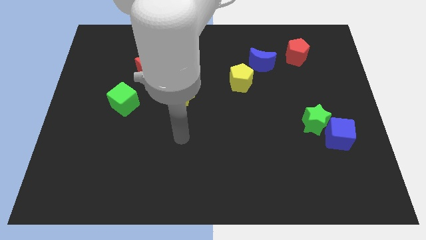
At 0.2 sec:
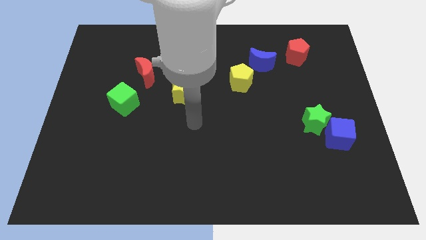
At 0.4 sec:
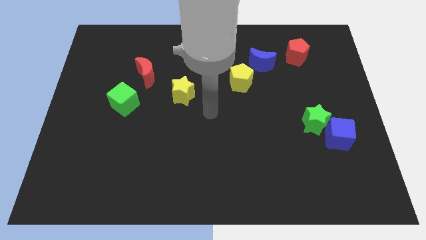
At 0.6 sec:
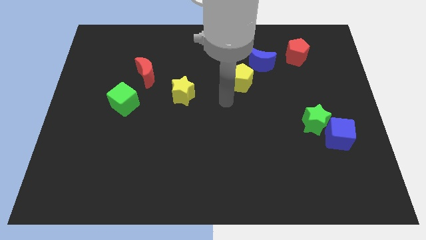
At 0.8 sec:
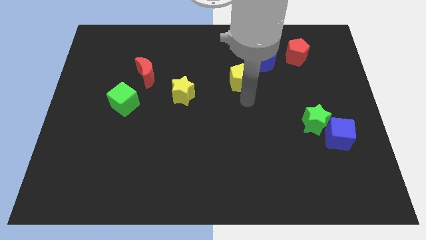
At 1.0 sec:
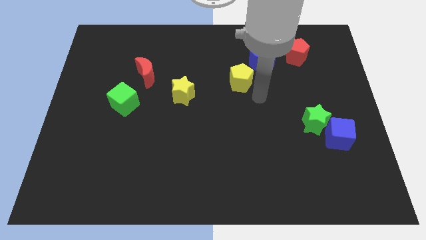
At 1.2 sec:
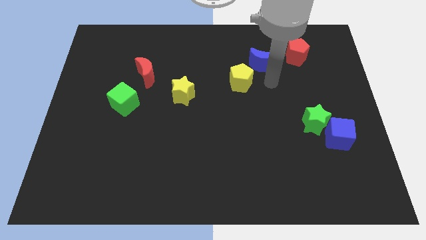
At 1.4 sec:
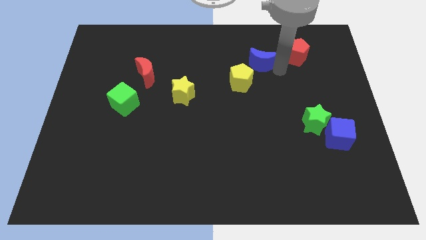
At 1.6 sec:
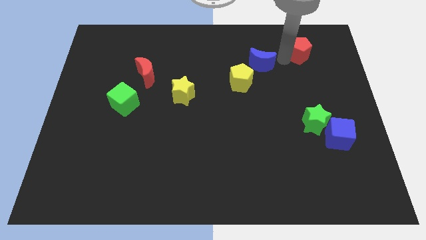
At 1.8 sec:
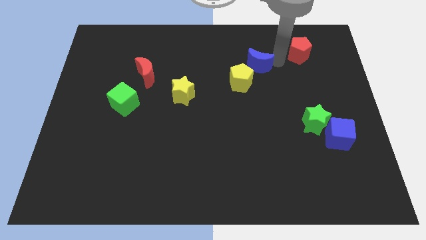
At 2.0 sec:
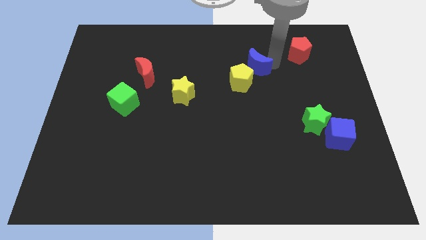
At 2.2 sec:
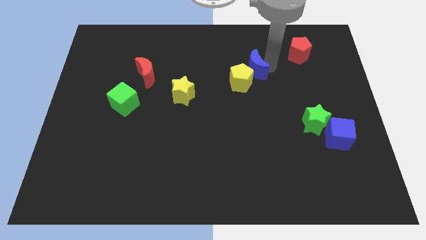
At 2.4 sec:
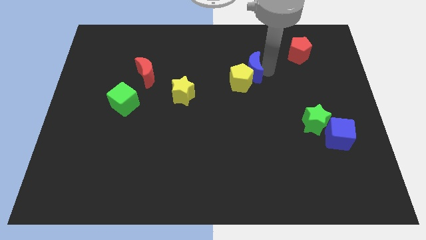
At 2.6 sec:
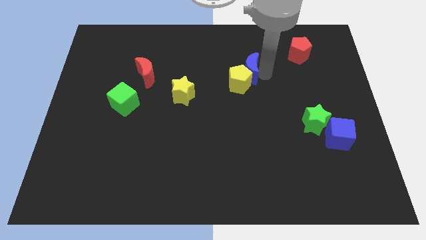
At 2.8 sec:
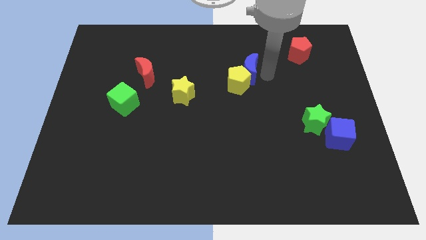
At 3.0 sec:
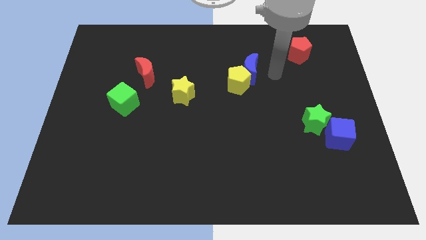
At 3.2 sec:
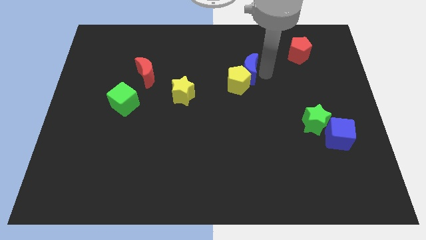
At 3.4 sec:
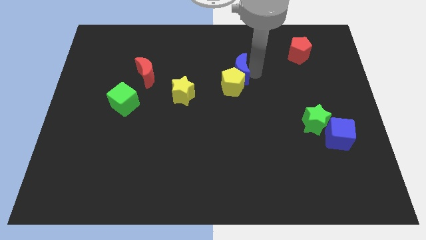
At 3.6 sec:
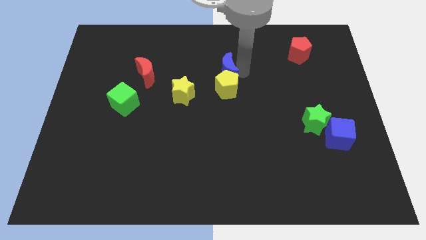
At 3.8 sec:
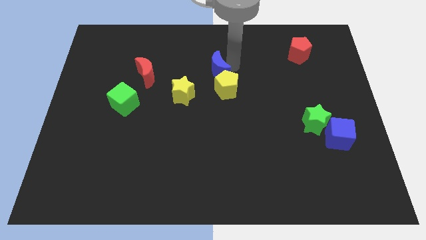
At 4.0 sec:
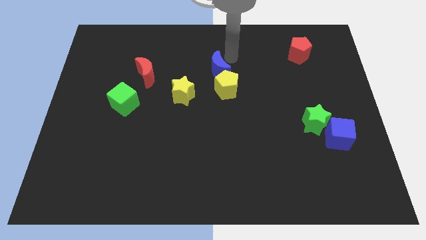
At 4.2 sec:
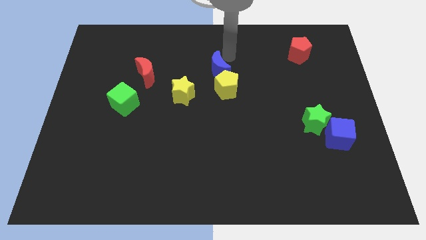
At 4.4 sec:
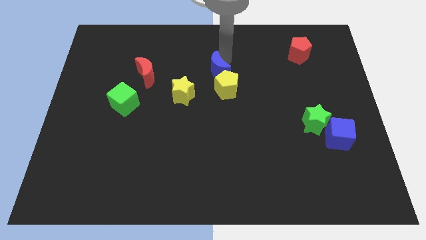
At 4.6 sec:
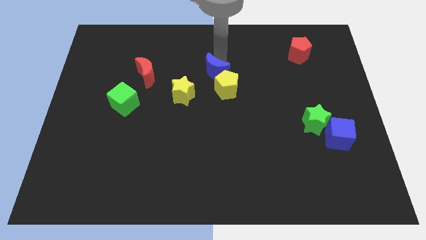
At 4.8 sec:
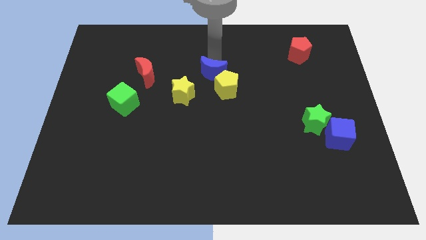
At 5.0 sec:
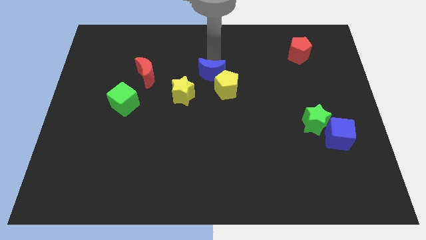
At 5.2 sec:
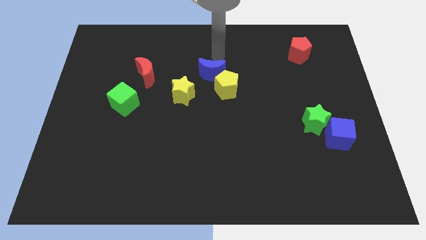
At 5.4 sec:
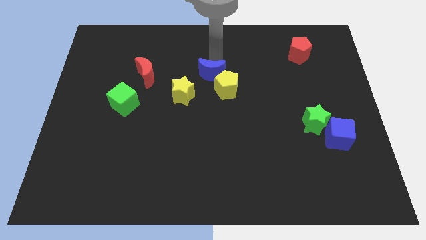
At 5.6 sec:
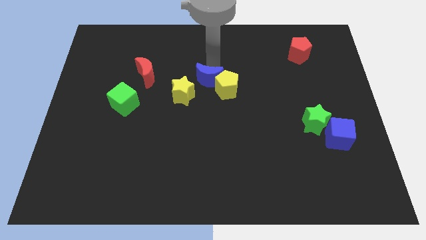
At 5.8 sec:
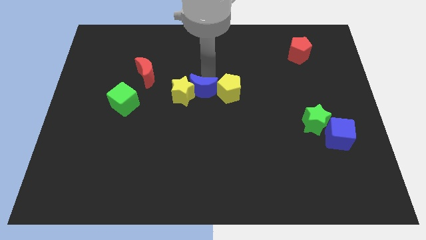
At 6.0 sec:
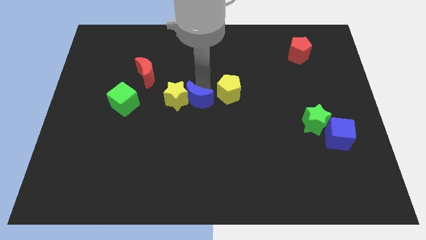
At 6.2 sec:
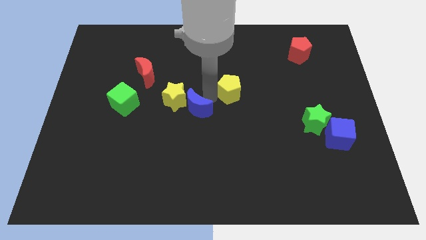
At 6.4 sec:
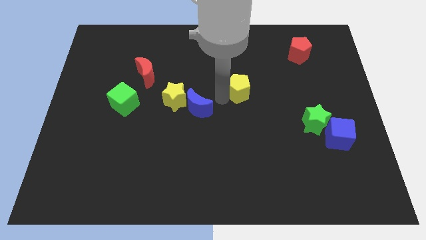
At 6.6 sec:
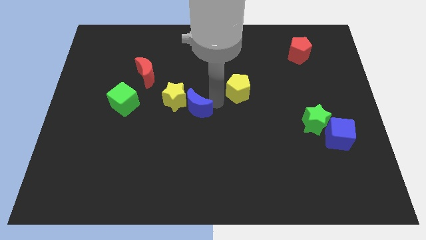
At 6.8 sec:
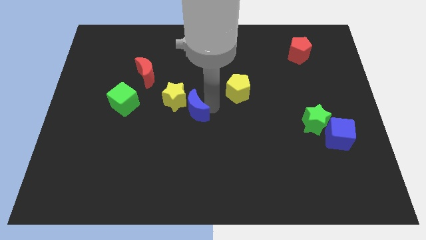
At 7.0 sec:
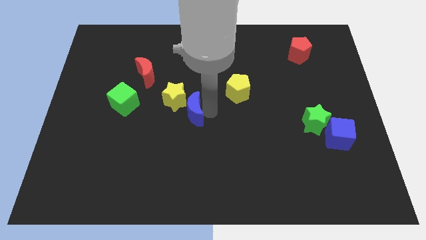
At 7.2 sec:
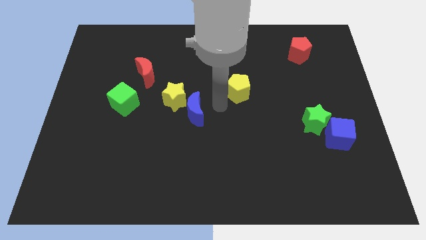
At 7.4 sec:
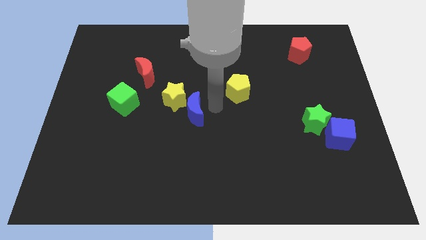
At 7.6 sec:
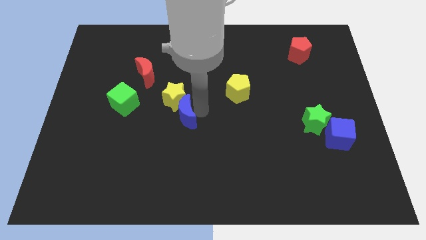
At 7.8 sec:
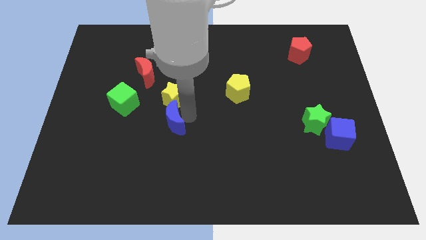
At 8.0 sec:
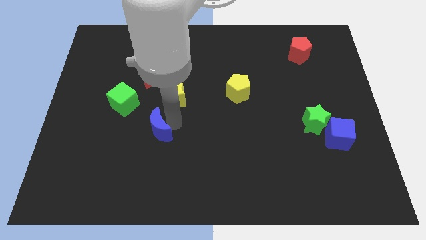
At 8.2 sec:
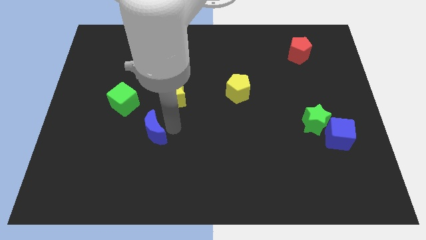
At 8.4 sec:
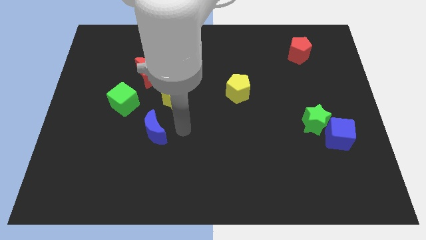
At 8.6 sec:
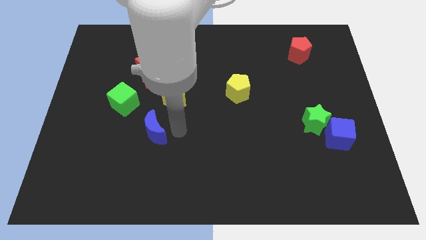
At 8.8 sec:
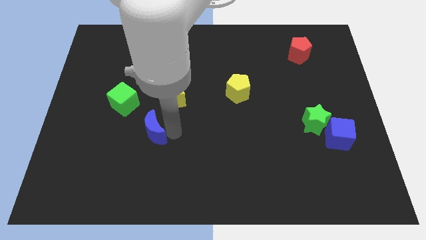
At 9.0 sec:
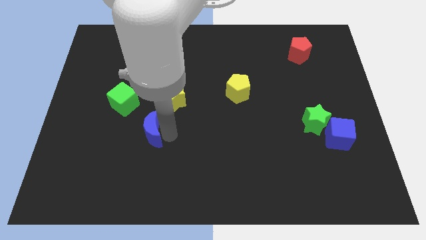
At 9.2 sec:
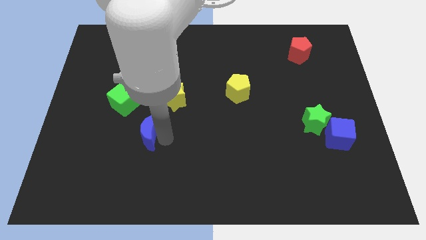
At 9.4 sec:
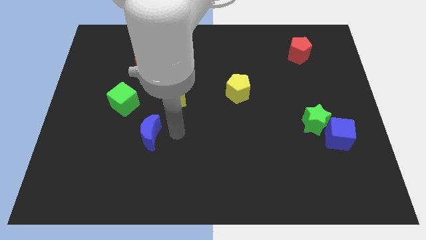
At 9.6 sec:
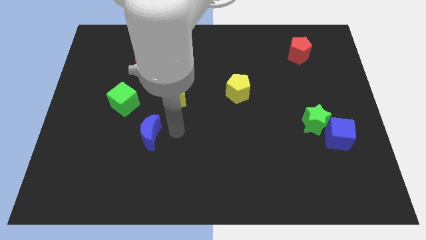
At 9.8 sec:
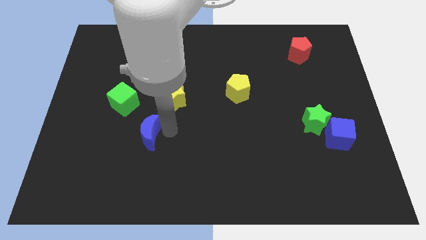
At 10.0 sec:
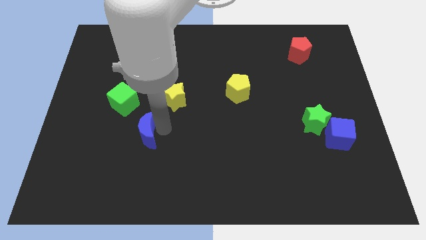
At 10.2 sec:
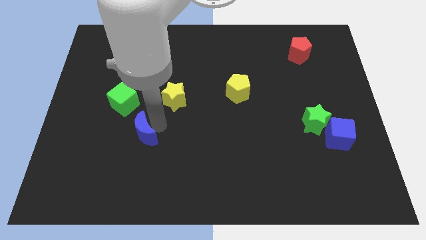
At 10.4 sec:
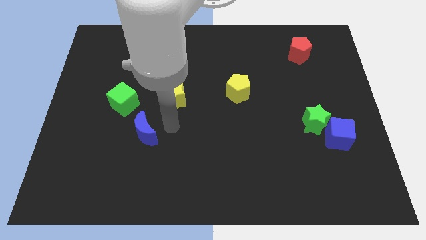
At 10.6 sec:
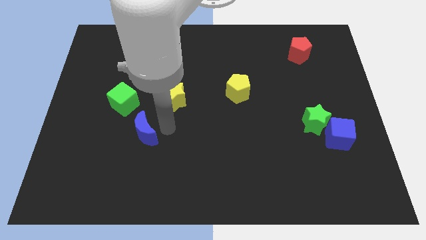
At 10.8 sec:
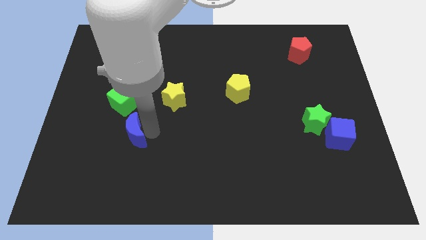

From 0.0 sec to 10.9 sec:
push the blue moon to the bottom side of the green cube

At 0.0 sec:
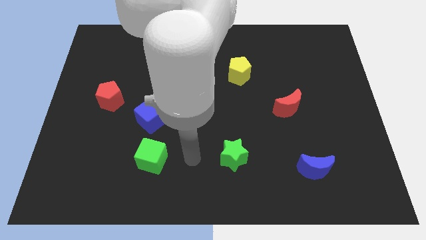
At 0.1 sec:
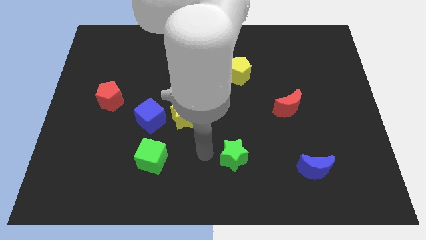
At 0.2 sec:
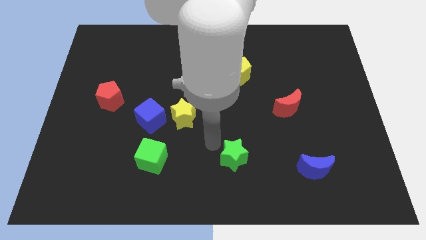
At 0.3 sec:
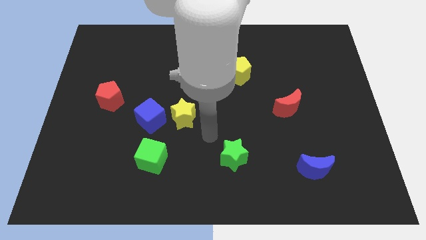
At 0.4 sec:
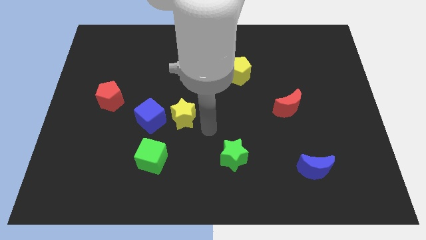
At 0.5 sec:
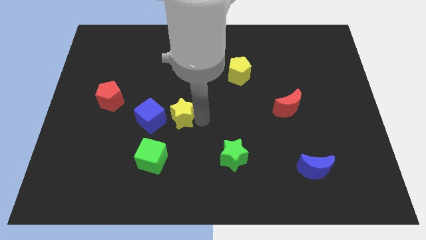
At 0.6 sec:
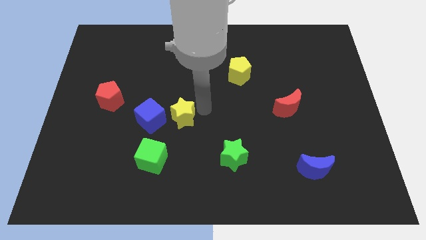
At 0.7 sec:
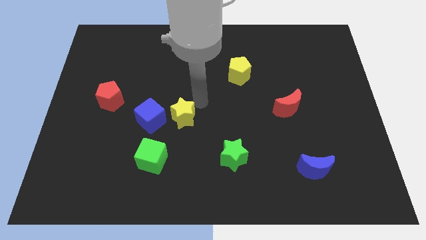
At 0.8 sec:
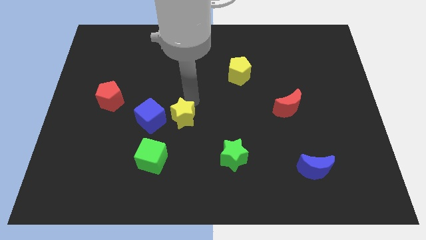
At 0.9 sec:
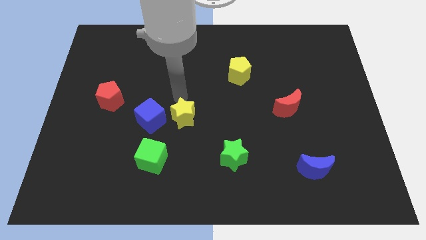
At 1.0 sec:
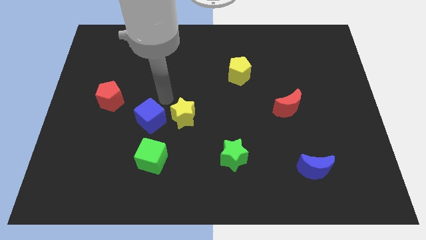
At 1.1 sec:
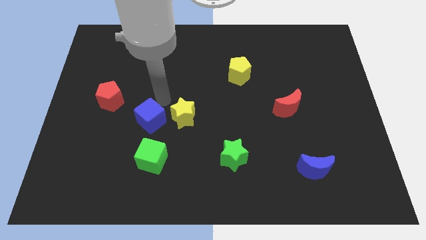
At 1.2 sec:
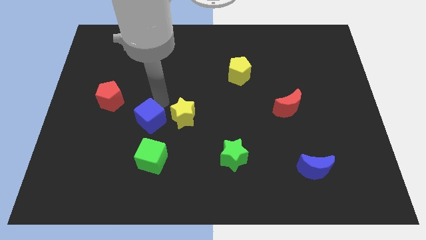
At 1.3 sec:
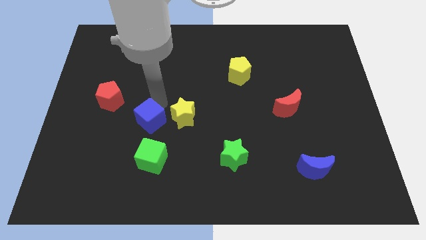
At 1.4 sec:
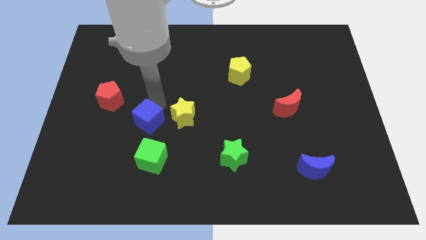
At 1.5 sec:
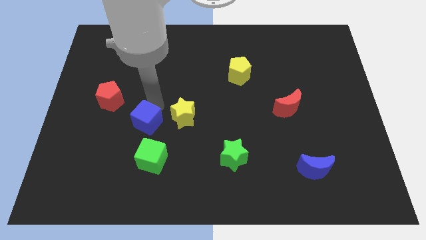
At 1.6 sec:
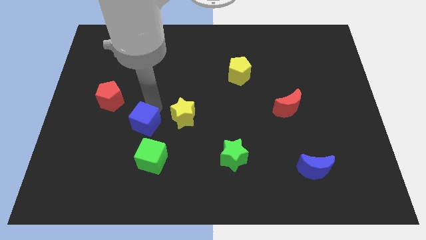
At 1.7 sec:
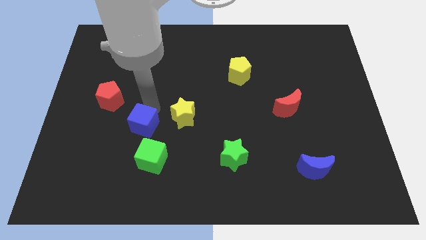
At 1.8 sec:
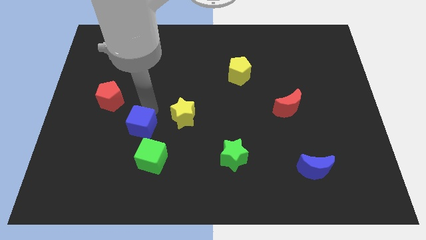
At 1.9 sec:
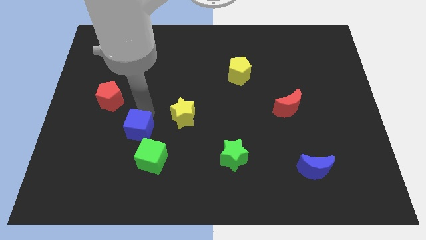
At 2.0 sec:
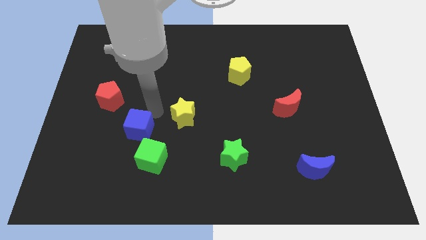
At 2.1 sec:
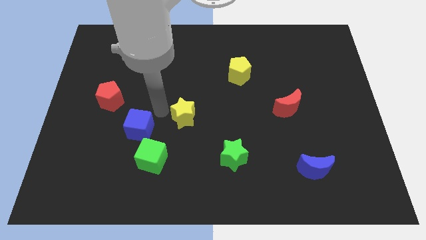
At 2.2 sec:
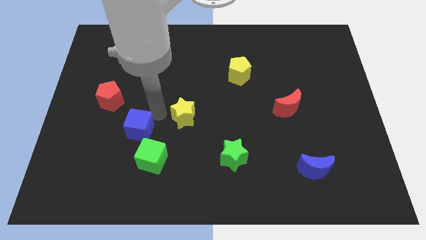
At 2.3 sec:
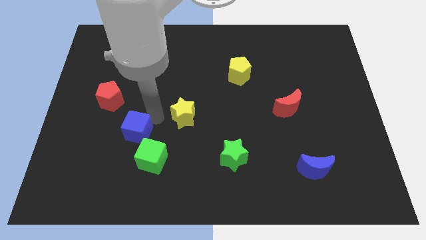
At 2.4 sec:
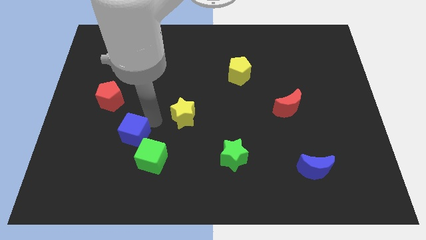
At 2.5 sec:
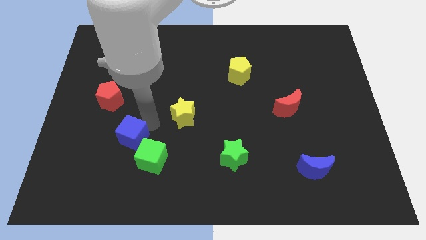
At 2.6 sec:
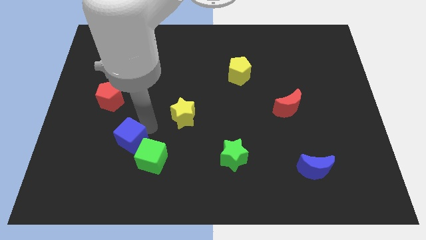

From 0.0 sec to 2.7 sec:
slide the blue cube left of the green cube
